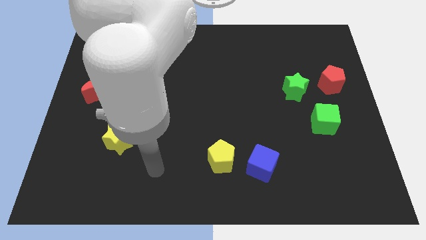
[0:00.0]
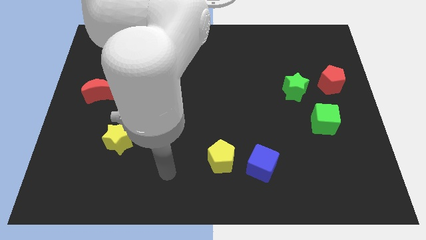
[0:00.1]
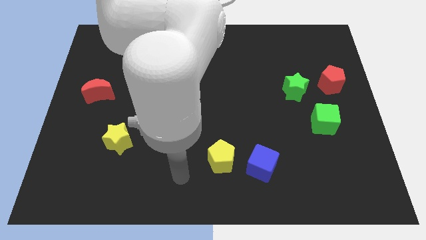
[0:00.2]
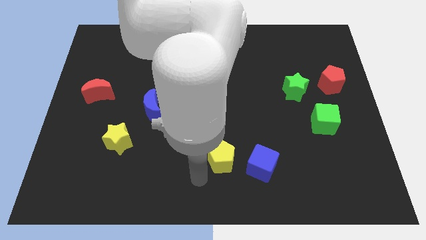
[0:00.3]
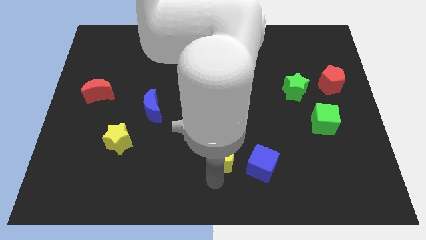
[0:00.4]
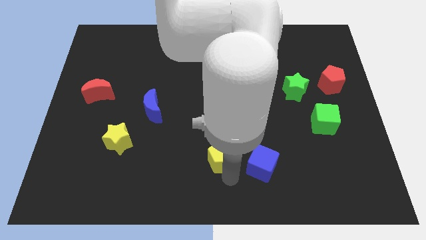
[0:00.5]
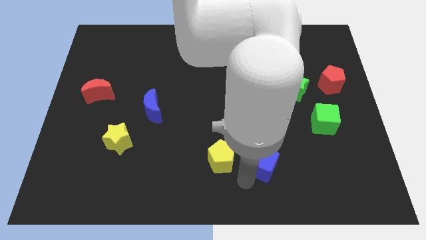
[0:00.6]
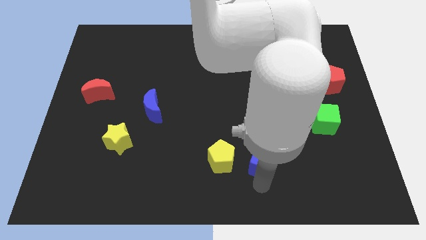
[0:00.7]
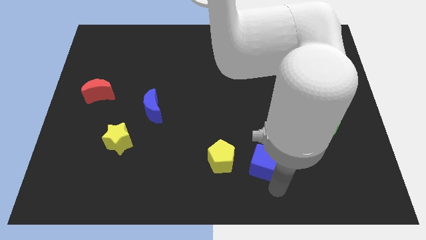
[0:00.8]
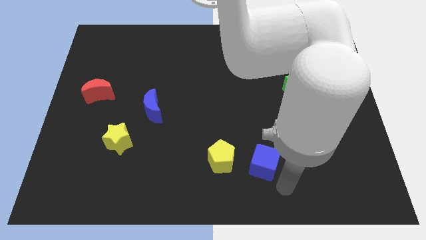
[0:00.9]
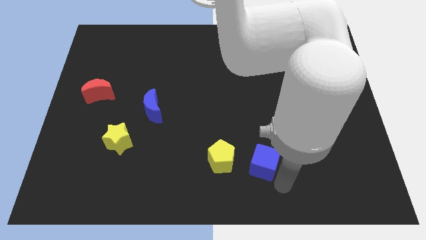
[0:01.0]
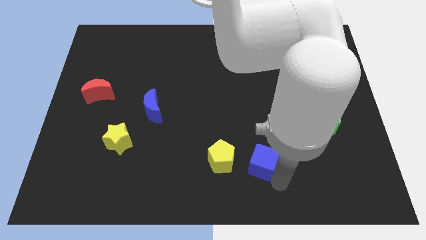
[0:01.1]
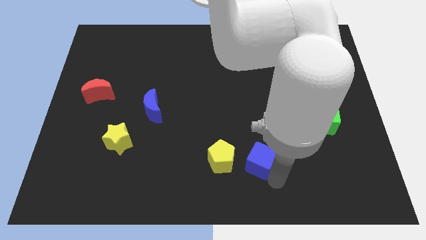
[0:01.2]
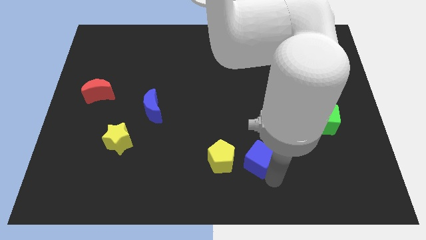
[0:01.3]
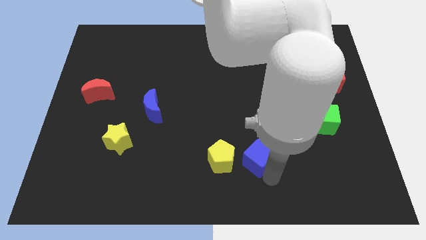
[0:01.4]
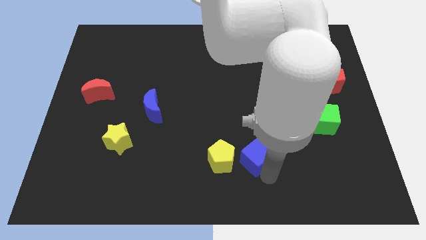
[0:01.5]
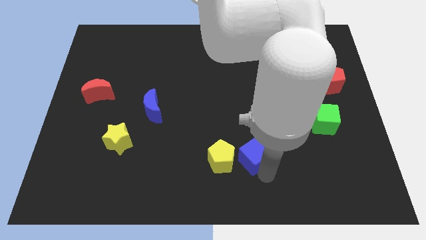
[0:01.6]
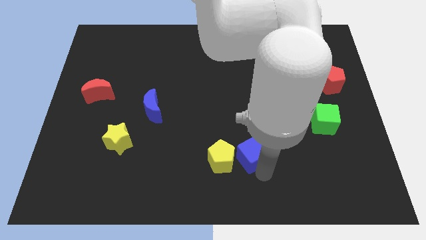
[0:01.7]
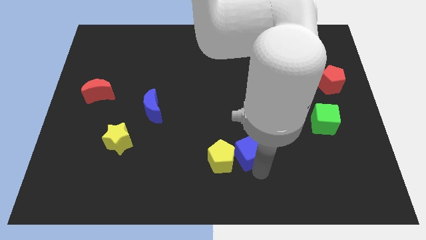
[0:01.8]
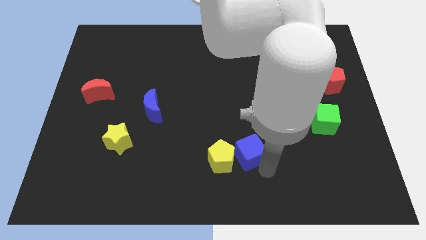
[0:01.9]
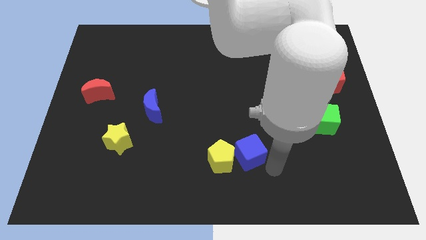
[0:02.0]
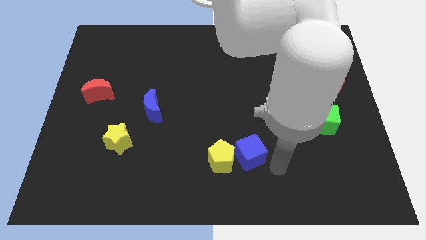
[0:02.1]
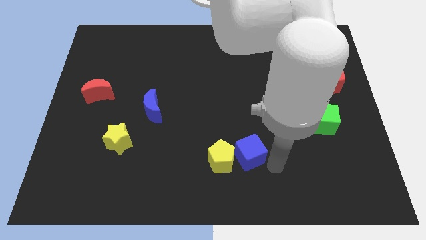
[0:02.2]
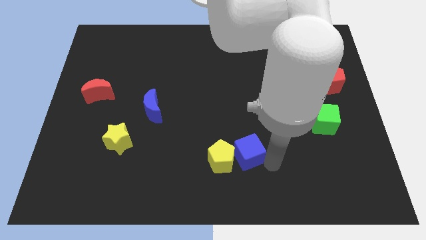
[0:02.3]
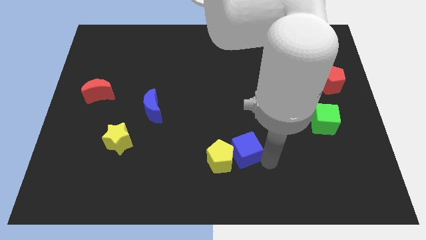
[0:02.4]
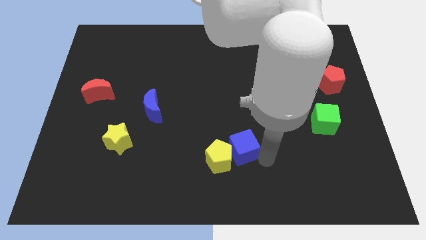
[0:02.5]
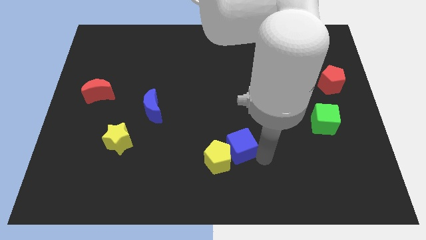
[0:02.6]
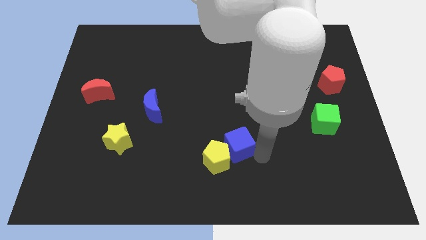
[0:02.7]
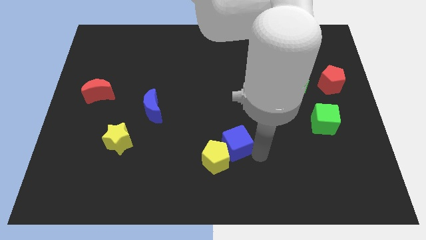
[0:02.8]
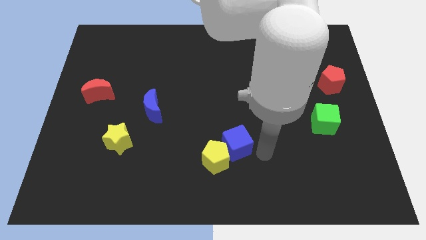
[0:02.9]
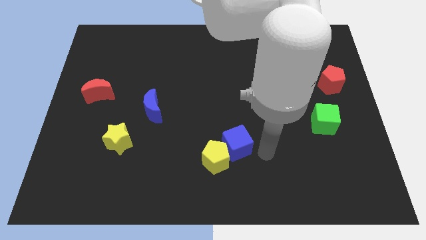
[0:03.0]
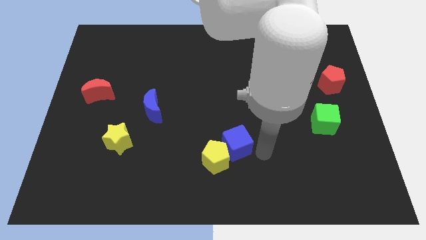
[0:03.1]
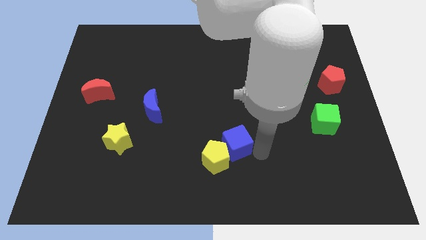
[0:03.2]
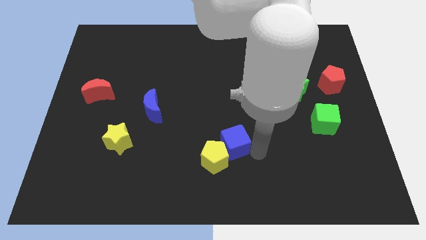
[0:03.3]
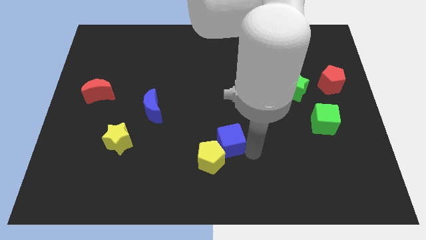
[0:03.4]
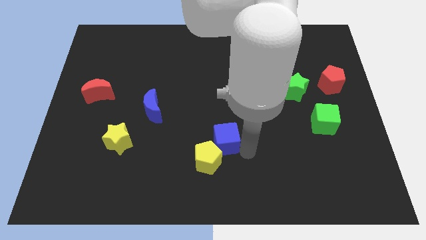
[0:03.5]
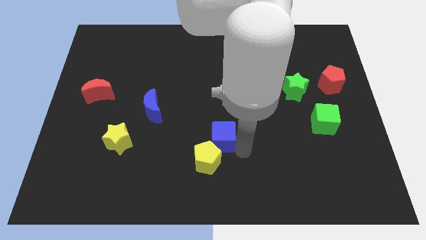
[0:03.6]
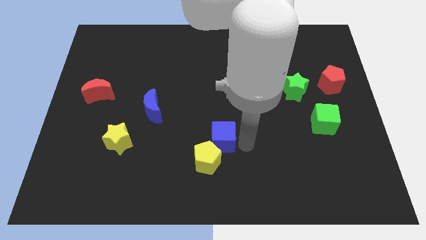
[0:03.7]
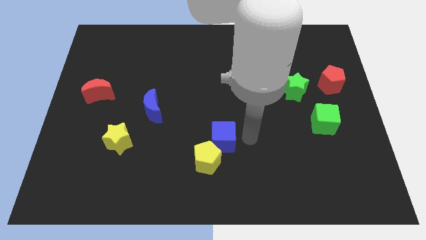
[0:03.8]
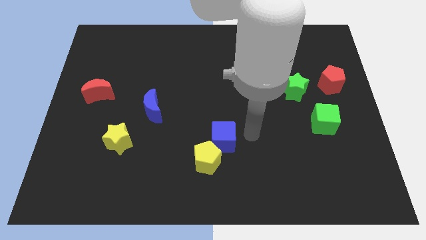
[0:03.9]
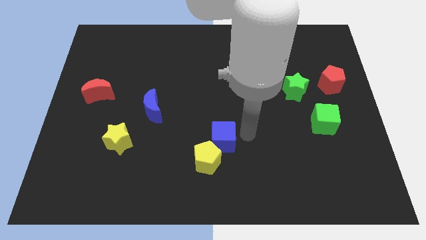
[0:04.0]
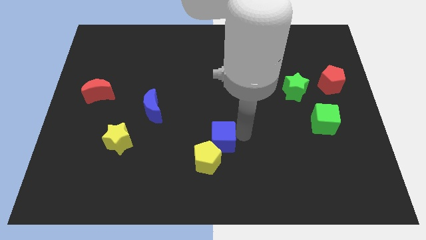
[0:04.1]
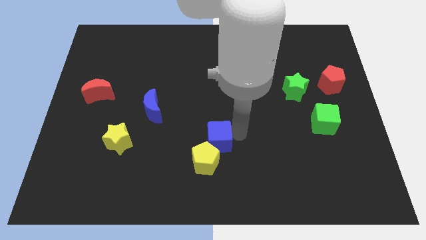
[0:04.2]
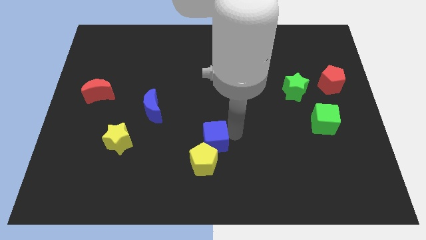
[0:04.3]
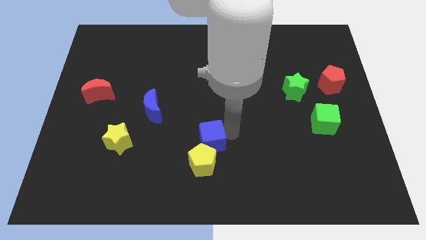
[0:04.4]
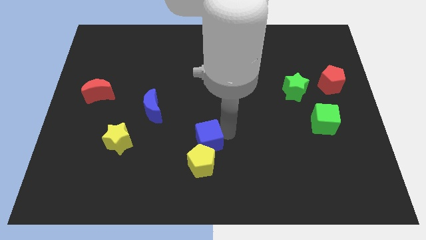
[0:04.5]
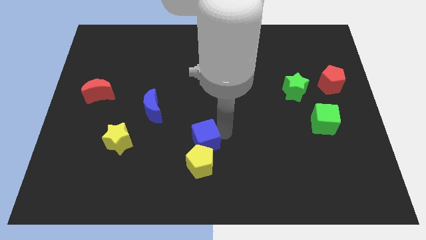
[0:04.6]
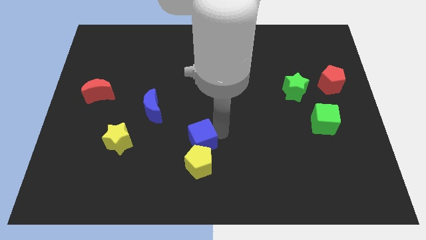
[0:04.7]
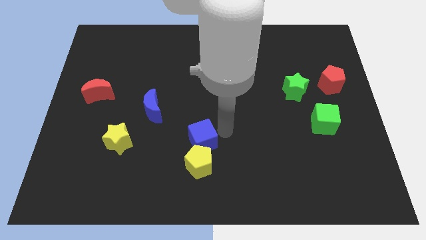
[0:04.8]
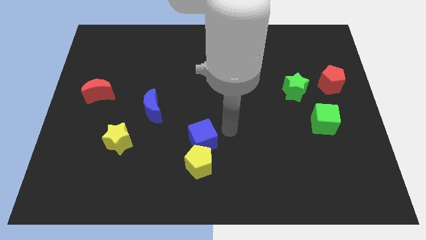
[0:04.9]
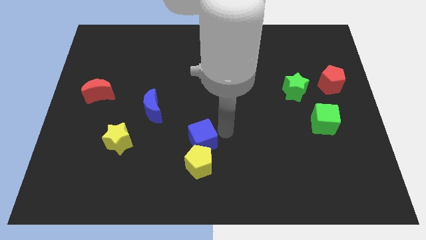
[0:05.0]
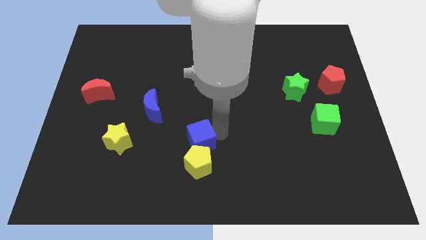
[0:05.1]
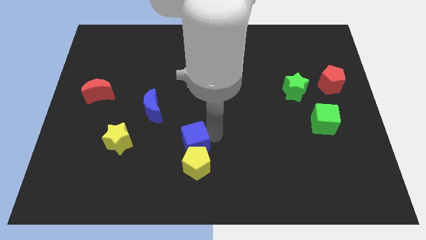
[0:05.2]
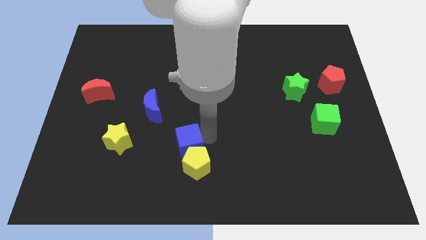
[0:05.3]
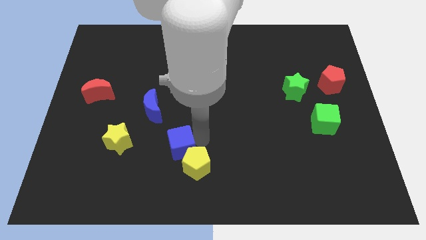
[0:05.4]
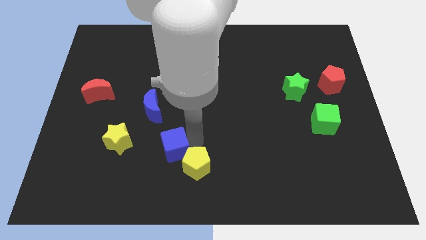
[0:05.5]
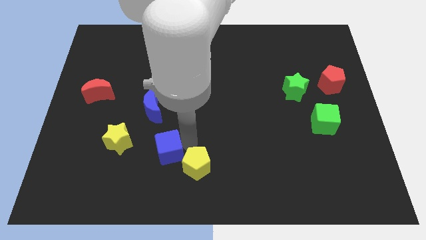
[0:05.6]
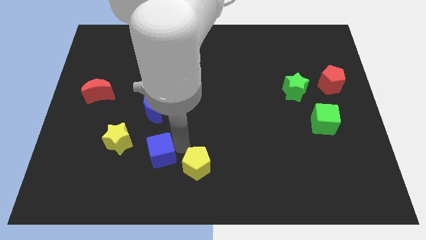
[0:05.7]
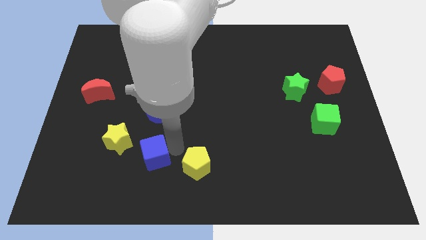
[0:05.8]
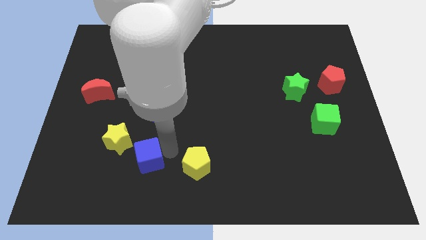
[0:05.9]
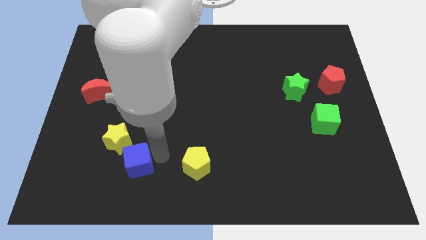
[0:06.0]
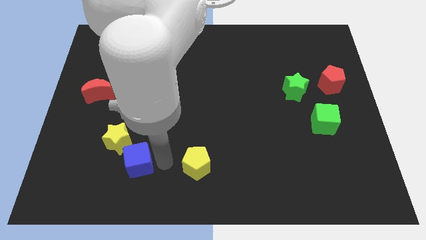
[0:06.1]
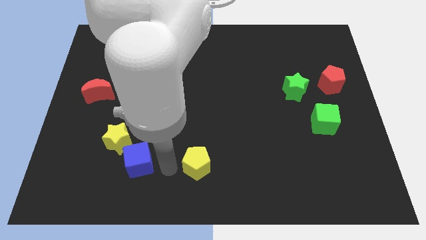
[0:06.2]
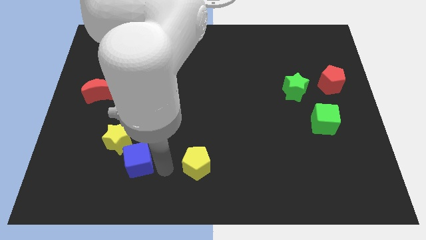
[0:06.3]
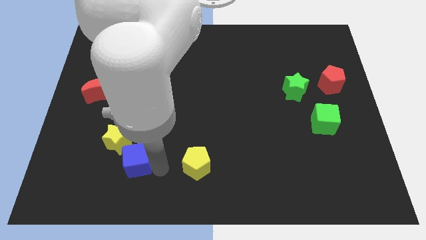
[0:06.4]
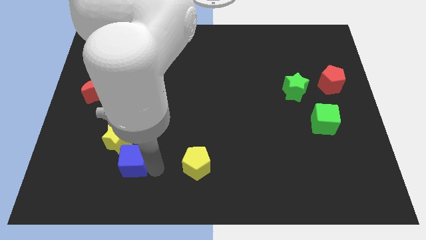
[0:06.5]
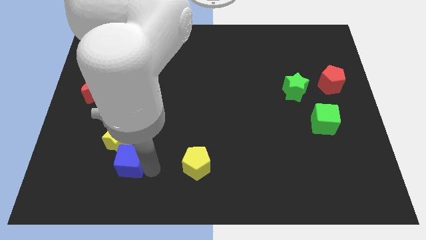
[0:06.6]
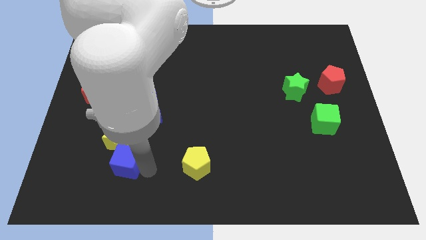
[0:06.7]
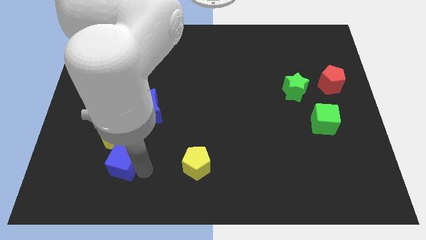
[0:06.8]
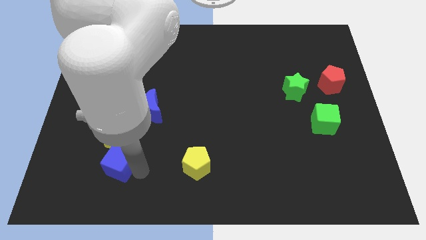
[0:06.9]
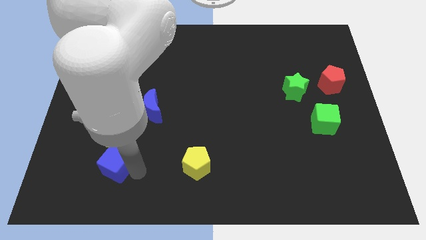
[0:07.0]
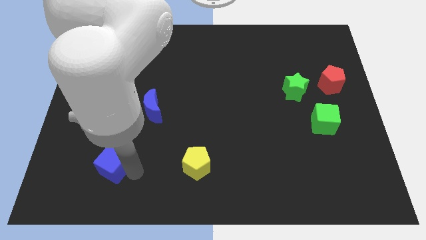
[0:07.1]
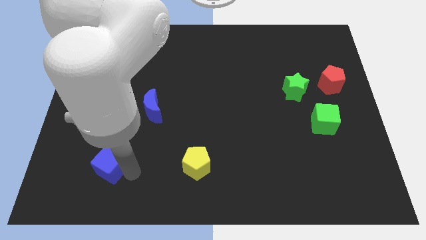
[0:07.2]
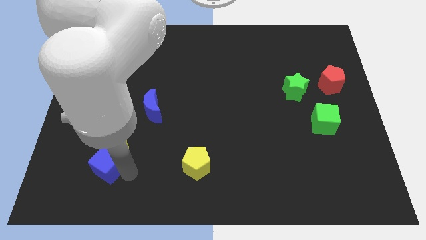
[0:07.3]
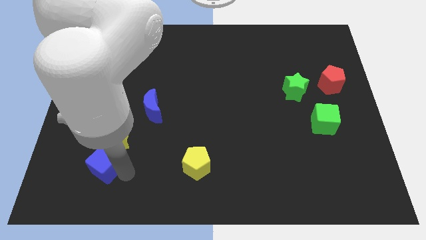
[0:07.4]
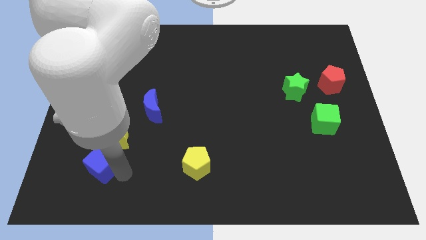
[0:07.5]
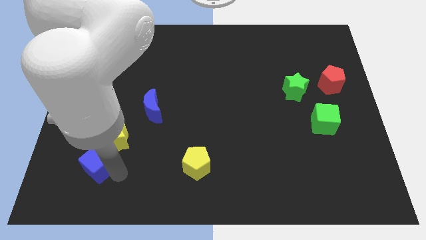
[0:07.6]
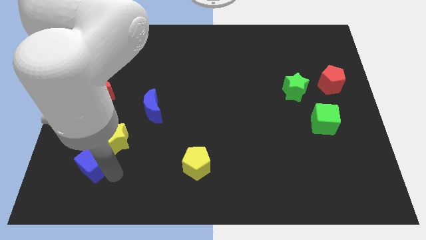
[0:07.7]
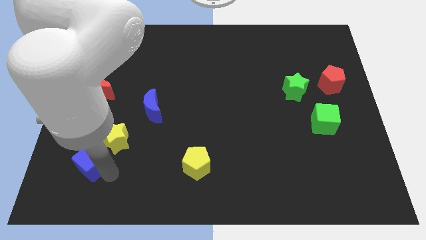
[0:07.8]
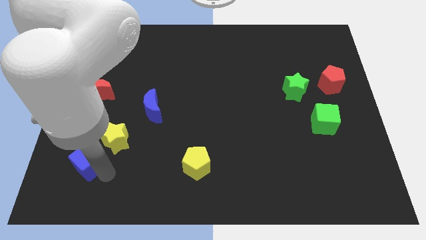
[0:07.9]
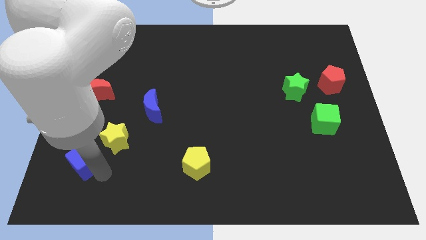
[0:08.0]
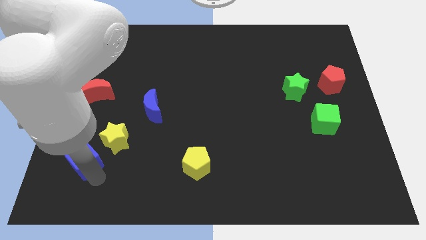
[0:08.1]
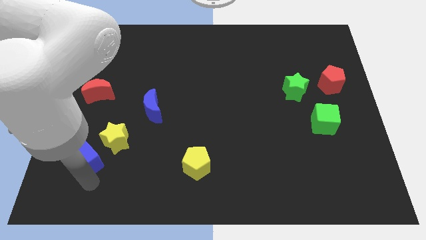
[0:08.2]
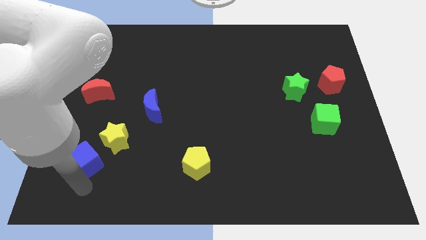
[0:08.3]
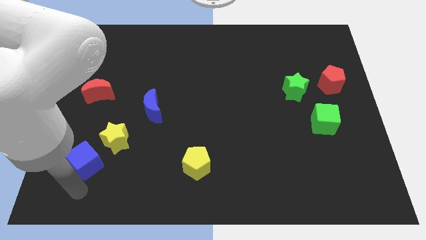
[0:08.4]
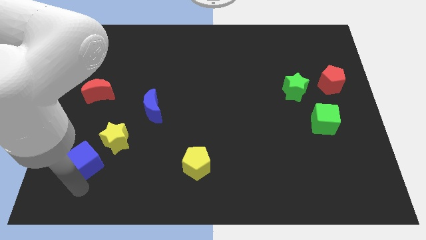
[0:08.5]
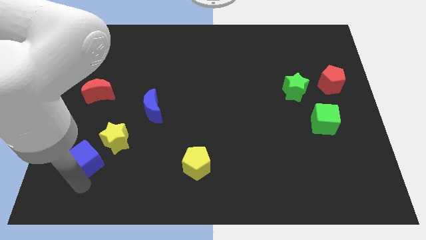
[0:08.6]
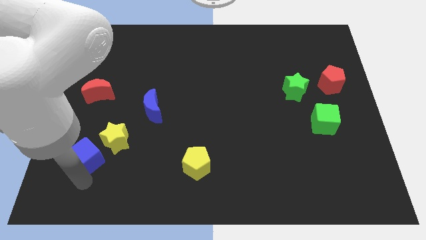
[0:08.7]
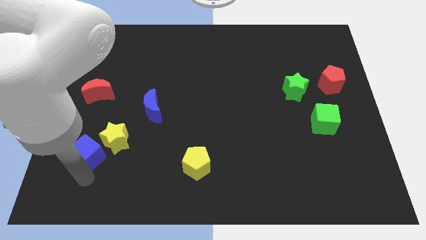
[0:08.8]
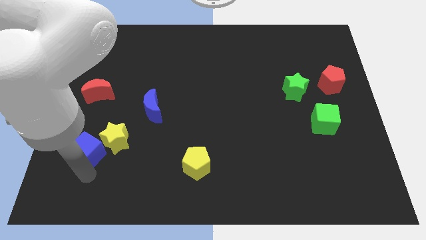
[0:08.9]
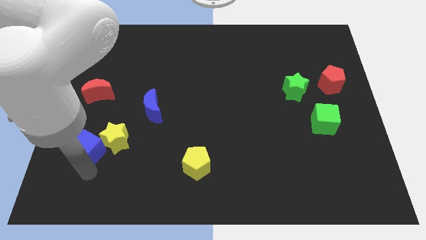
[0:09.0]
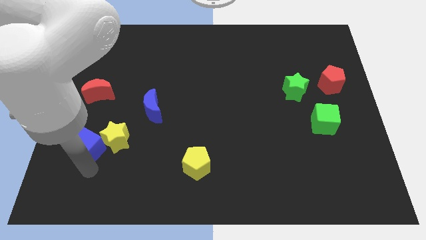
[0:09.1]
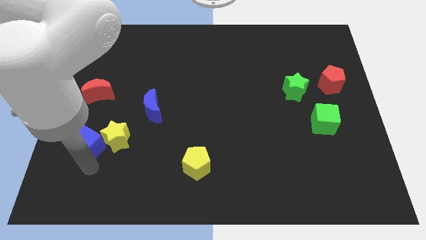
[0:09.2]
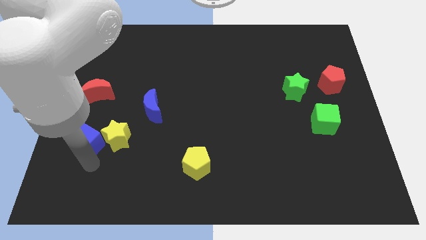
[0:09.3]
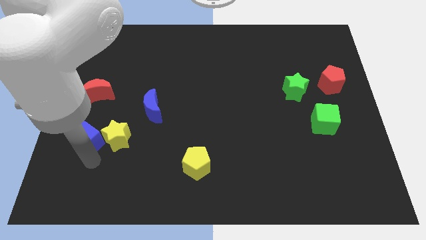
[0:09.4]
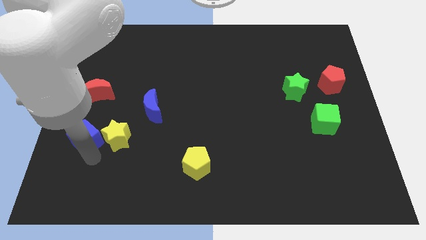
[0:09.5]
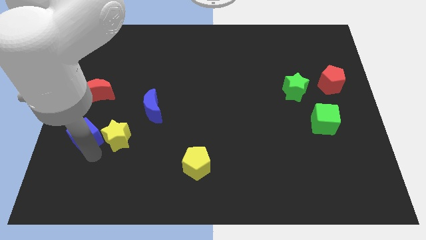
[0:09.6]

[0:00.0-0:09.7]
slide the blue cube to the top left of the yellow star
